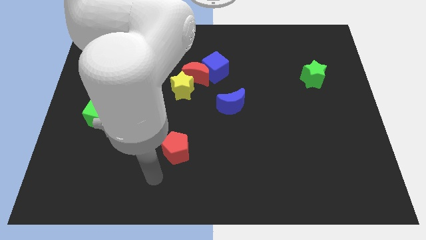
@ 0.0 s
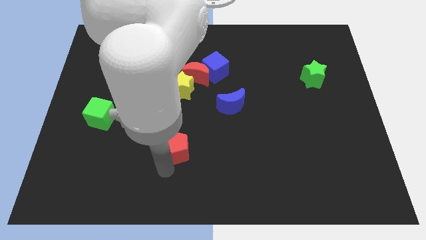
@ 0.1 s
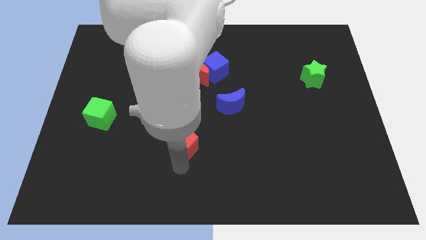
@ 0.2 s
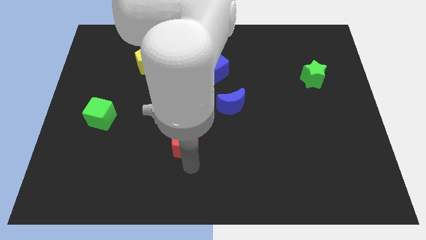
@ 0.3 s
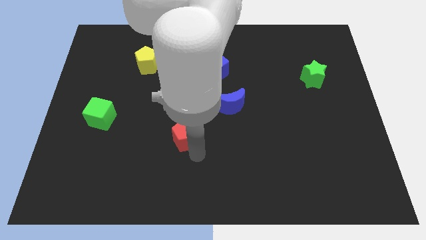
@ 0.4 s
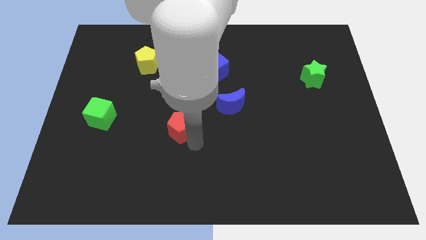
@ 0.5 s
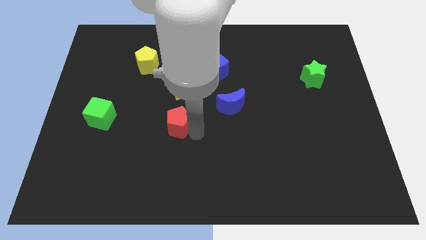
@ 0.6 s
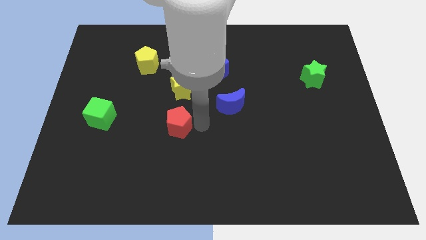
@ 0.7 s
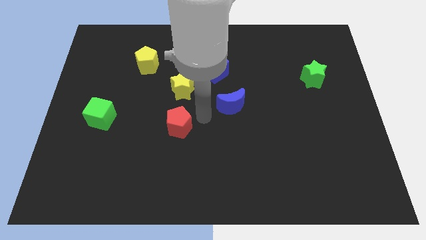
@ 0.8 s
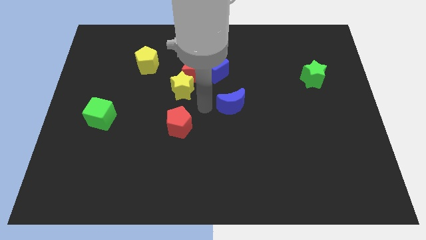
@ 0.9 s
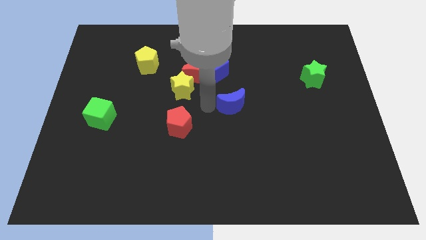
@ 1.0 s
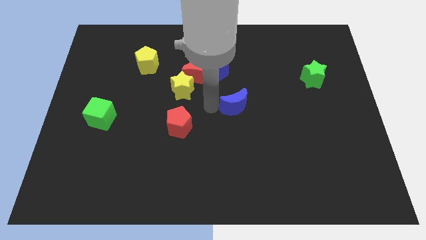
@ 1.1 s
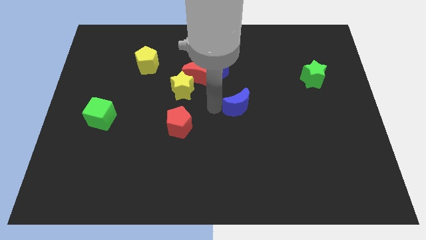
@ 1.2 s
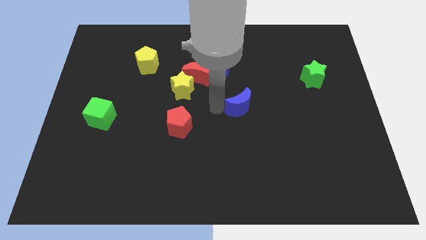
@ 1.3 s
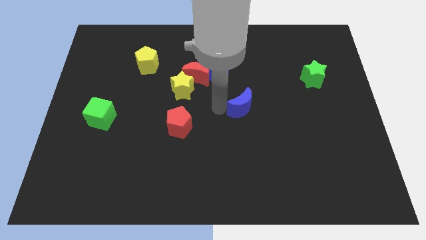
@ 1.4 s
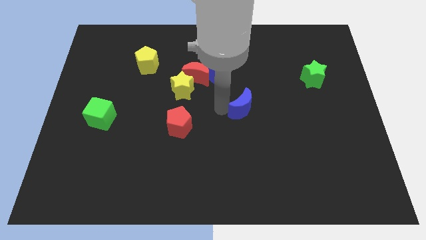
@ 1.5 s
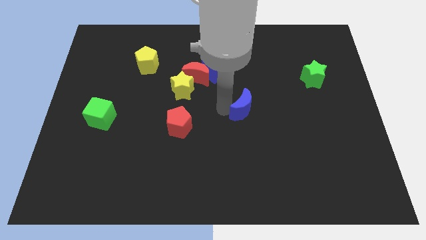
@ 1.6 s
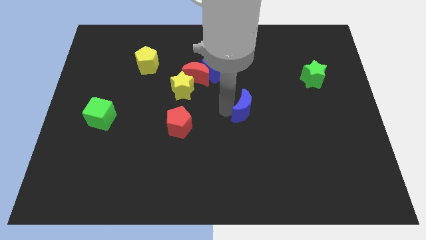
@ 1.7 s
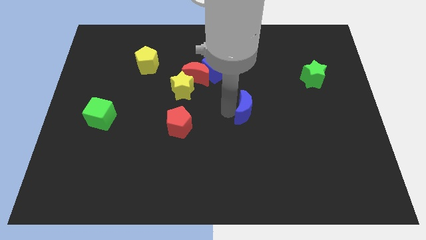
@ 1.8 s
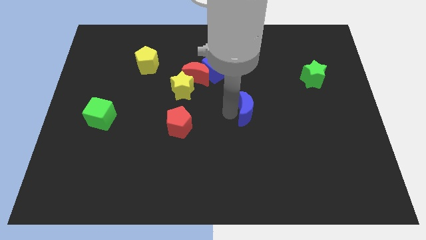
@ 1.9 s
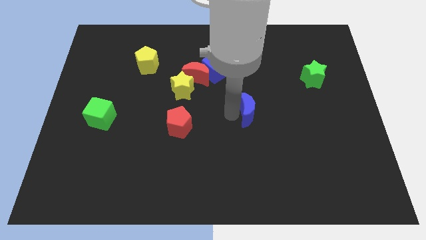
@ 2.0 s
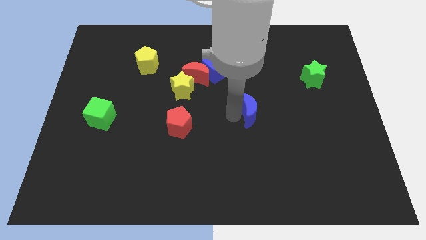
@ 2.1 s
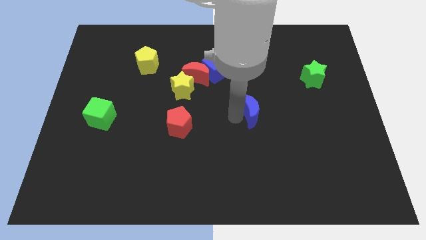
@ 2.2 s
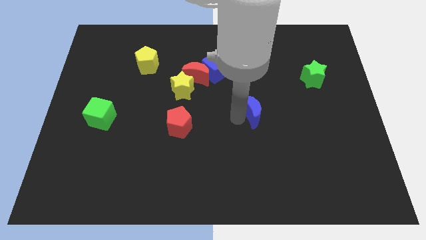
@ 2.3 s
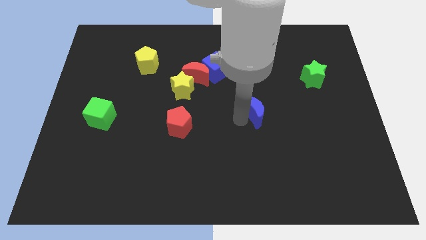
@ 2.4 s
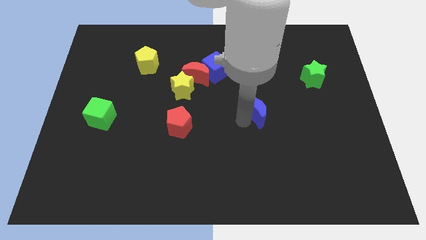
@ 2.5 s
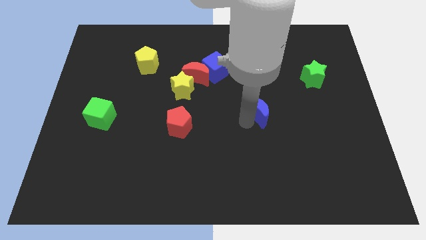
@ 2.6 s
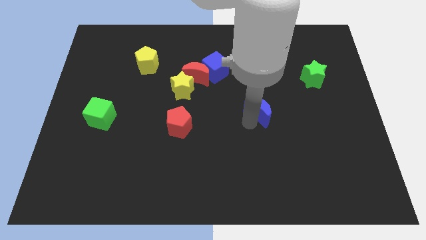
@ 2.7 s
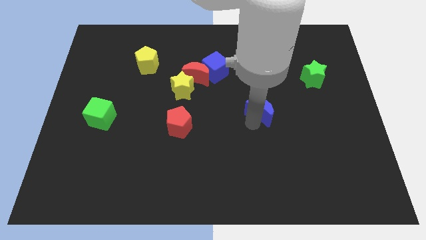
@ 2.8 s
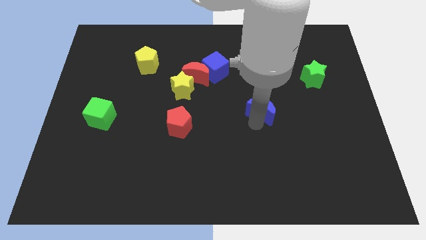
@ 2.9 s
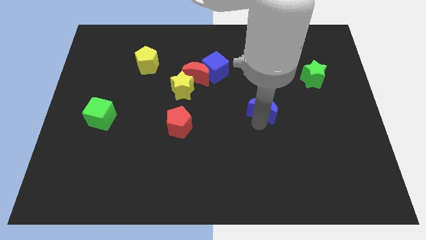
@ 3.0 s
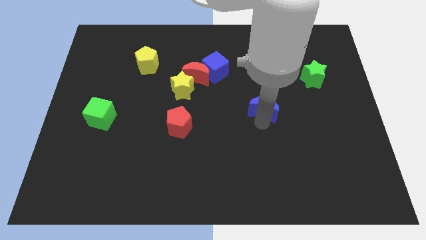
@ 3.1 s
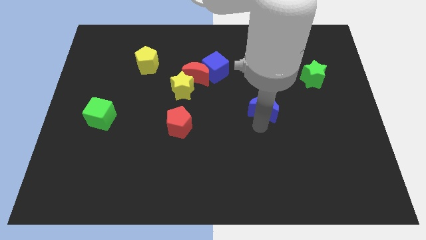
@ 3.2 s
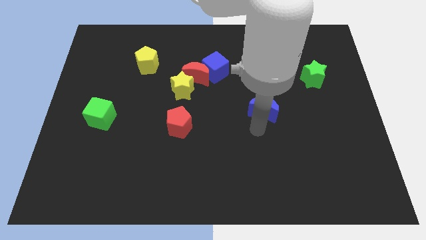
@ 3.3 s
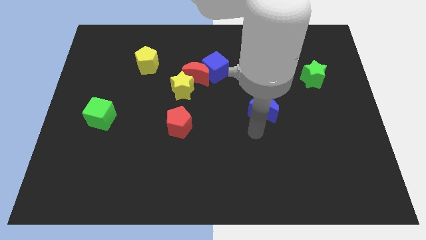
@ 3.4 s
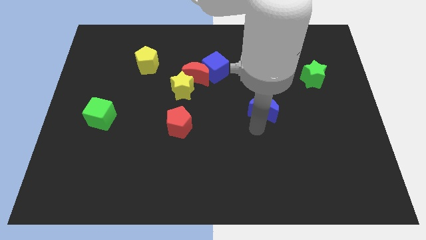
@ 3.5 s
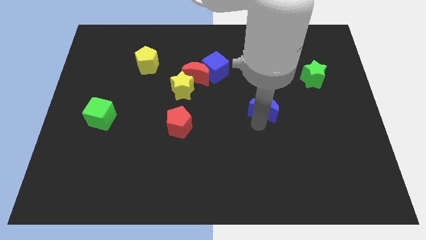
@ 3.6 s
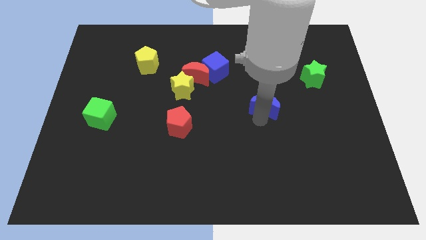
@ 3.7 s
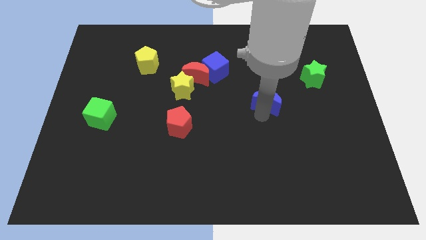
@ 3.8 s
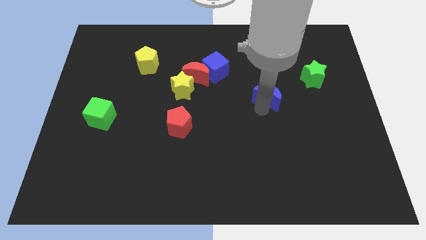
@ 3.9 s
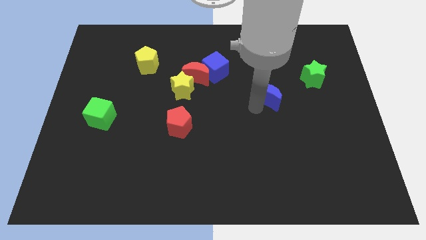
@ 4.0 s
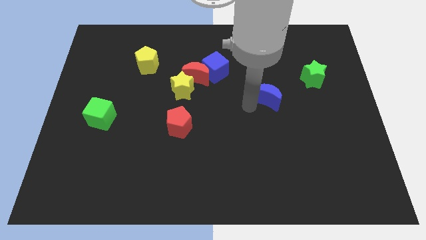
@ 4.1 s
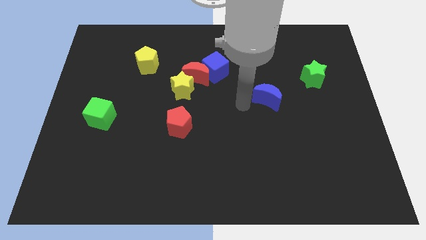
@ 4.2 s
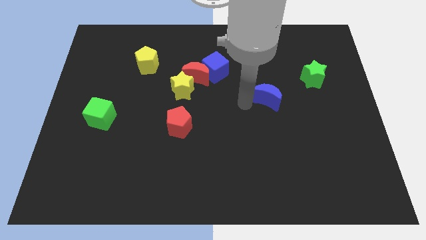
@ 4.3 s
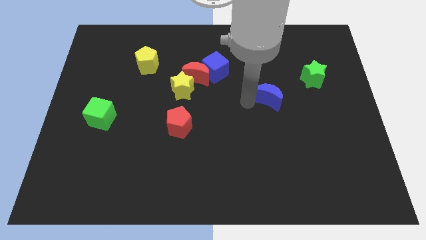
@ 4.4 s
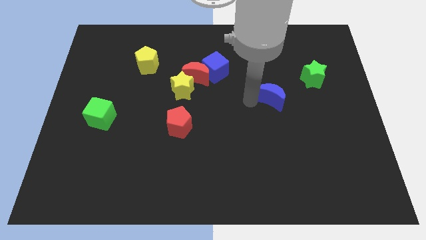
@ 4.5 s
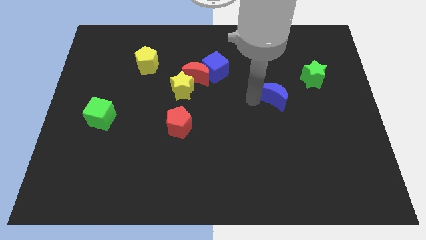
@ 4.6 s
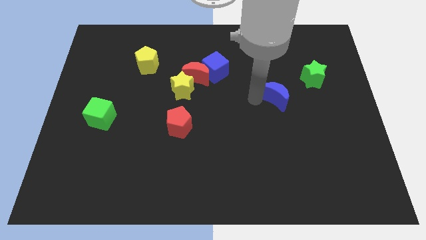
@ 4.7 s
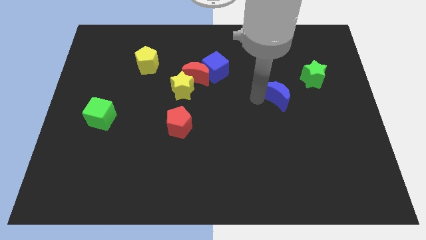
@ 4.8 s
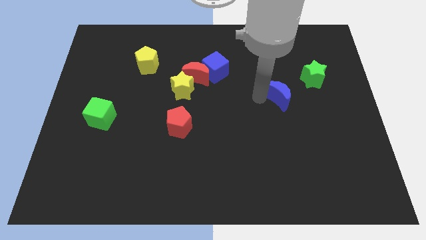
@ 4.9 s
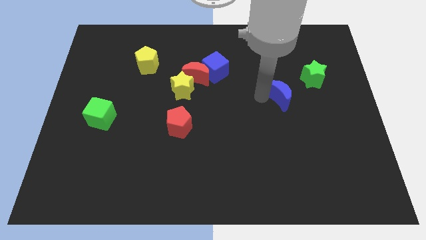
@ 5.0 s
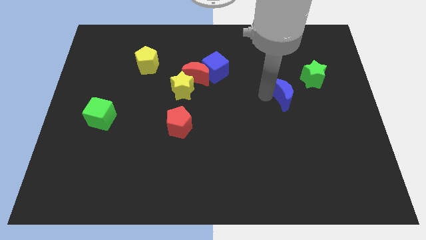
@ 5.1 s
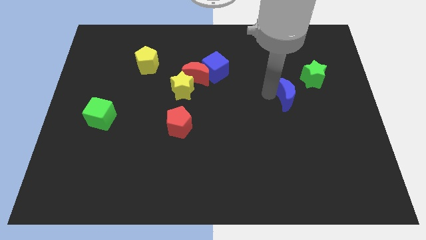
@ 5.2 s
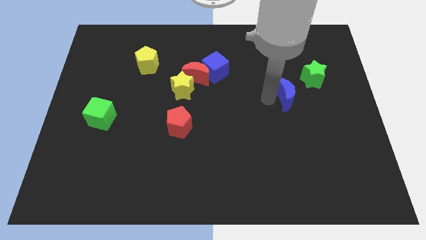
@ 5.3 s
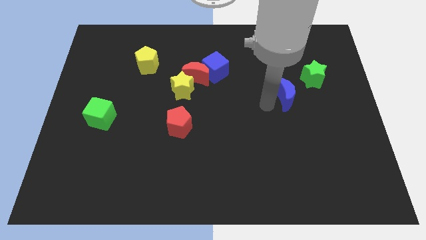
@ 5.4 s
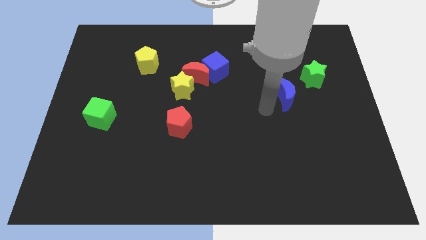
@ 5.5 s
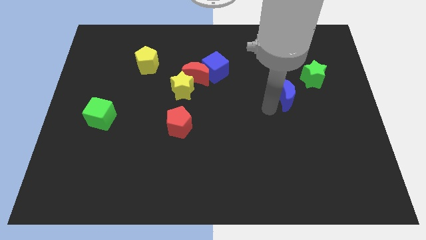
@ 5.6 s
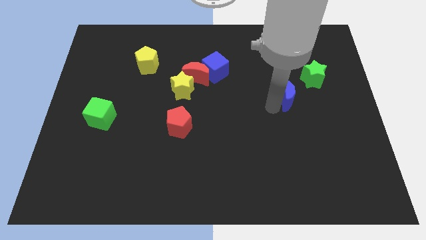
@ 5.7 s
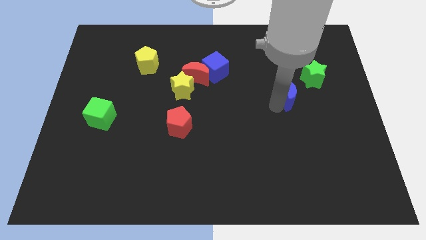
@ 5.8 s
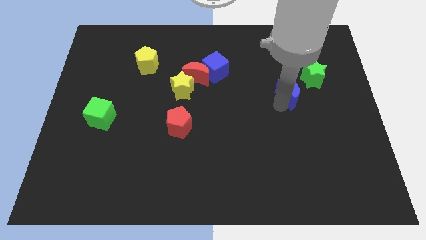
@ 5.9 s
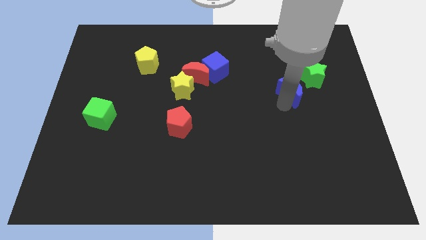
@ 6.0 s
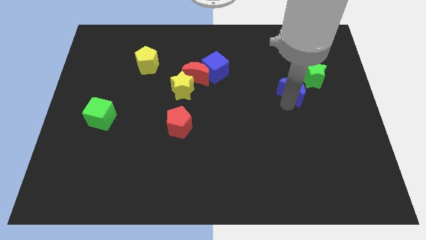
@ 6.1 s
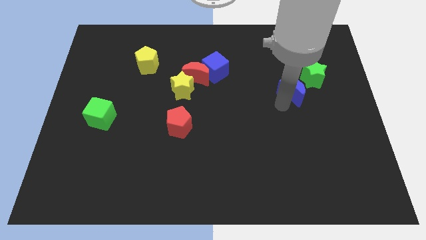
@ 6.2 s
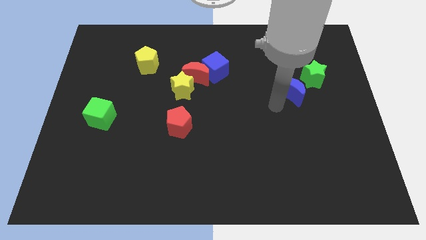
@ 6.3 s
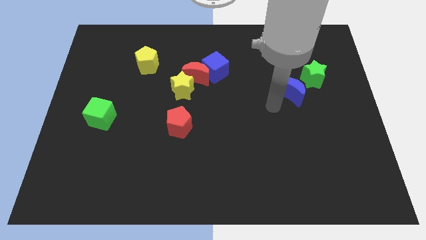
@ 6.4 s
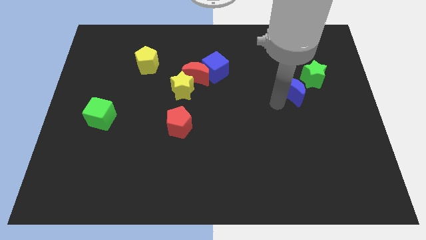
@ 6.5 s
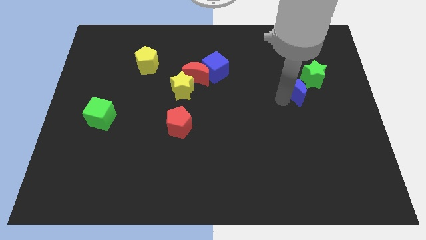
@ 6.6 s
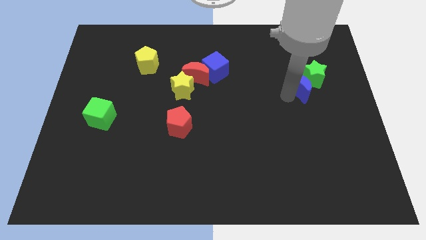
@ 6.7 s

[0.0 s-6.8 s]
push the blue moon next to the green star

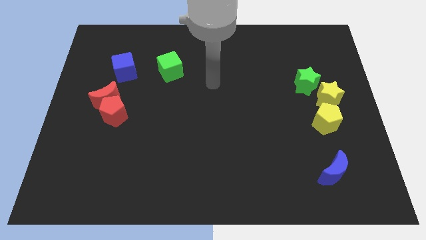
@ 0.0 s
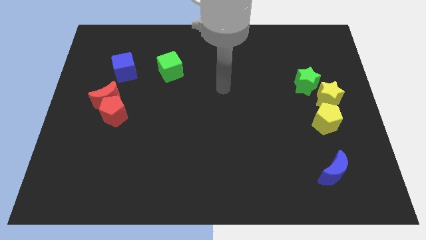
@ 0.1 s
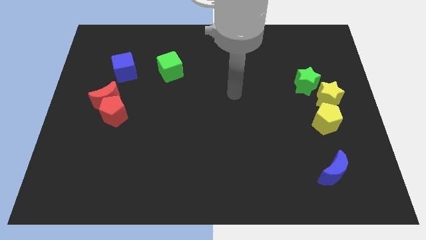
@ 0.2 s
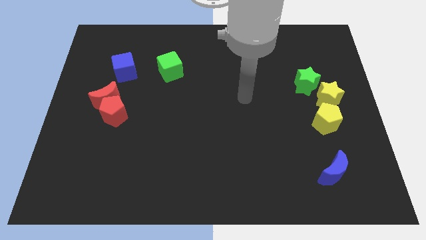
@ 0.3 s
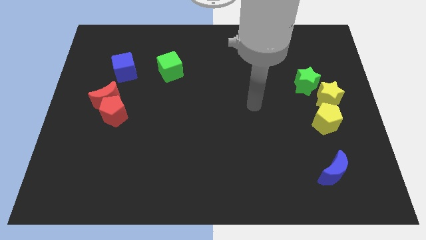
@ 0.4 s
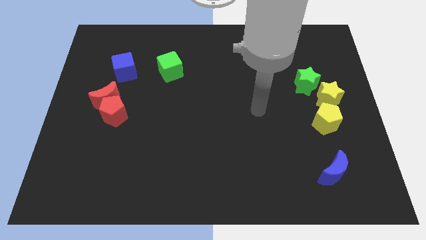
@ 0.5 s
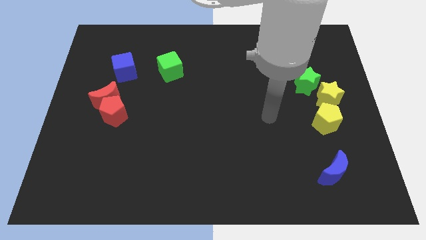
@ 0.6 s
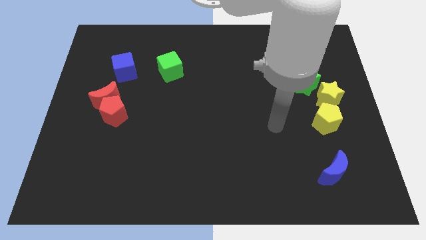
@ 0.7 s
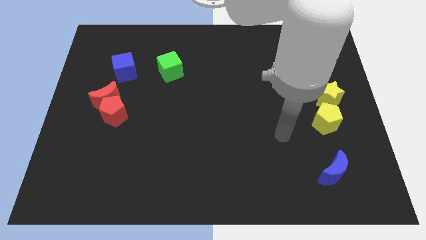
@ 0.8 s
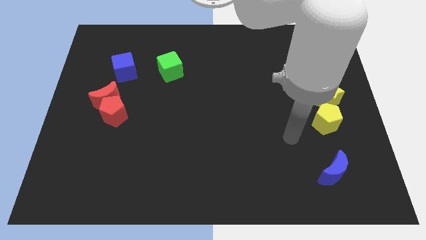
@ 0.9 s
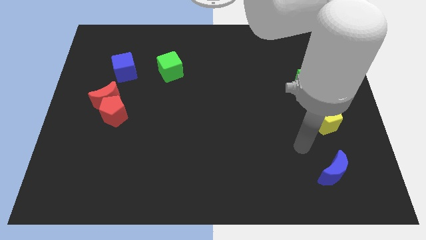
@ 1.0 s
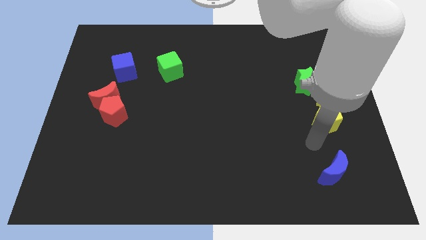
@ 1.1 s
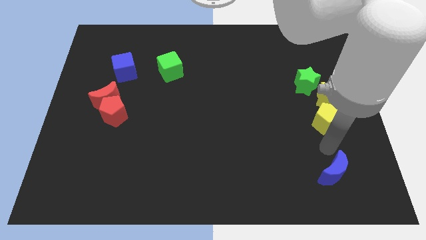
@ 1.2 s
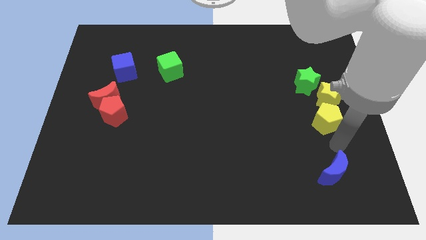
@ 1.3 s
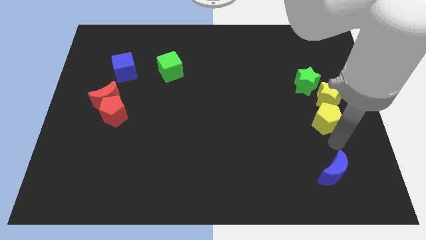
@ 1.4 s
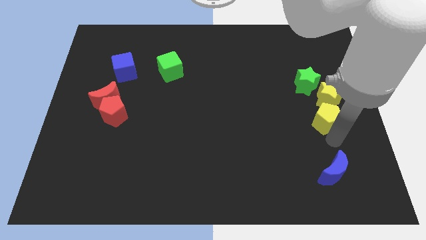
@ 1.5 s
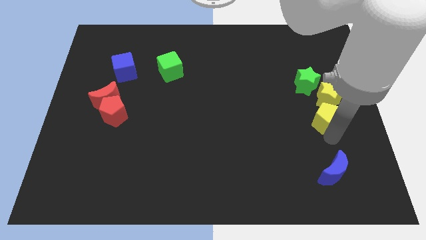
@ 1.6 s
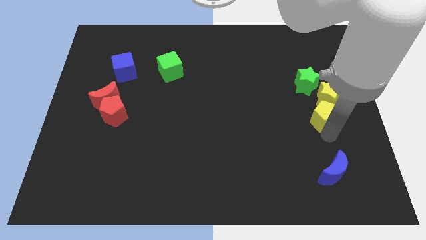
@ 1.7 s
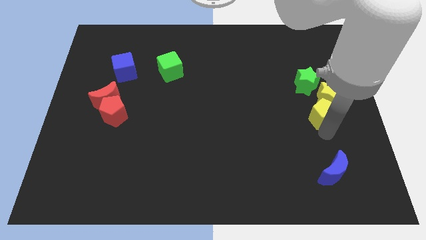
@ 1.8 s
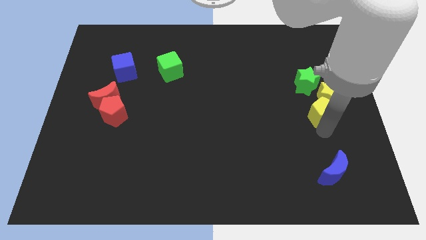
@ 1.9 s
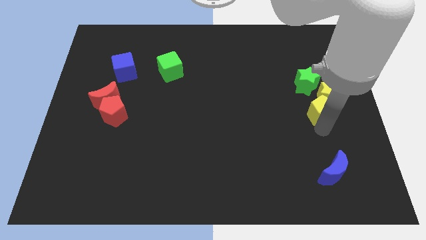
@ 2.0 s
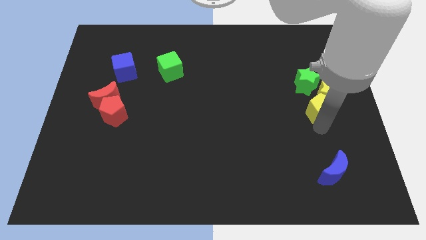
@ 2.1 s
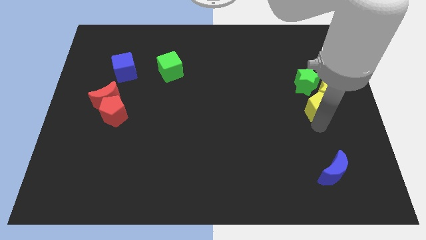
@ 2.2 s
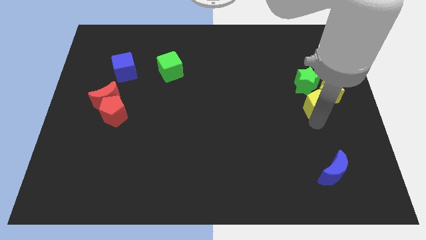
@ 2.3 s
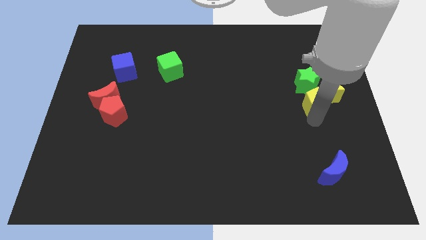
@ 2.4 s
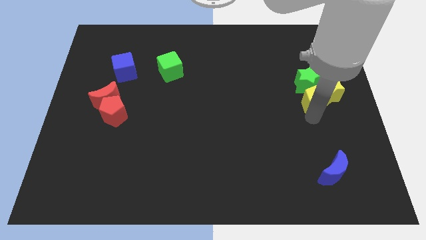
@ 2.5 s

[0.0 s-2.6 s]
slide the yellow pentagon close to the green star
